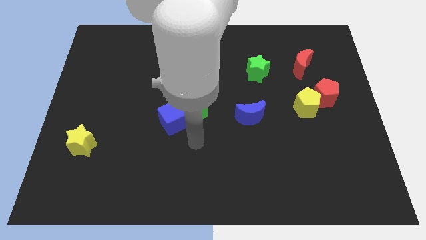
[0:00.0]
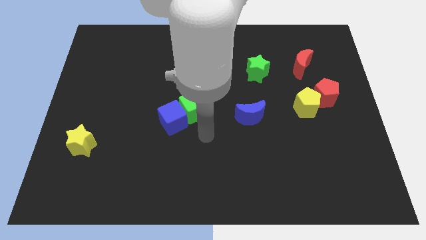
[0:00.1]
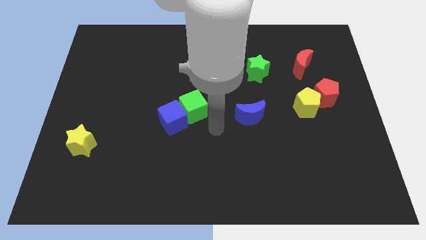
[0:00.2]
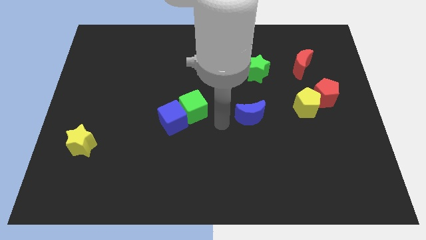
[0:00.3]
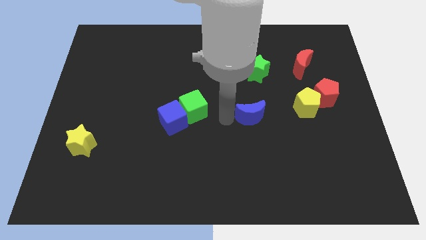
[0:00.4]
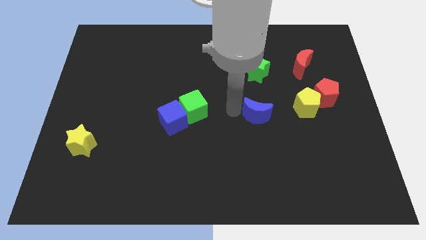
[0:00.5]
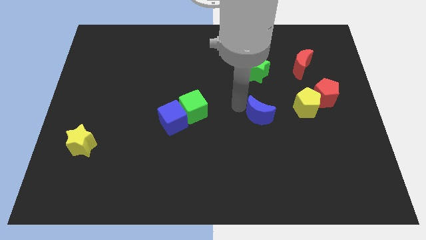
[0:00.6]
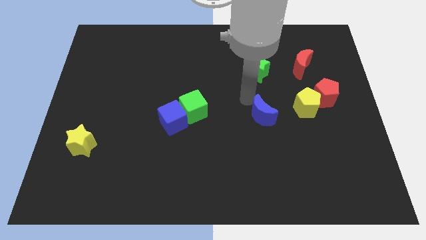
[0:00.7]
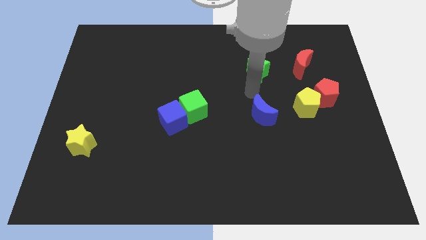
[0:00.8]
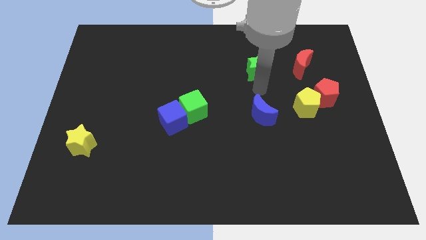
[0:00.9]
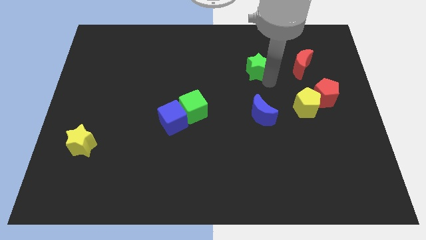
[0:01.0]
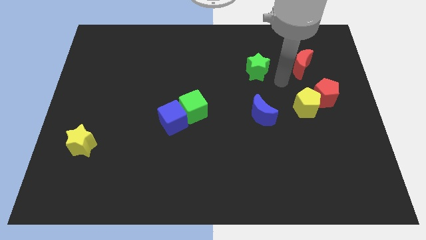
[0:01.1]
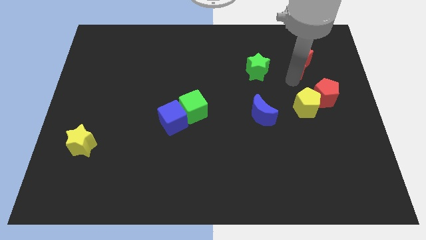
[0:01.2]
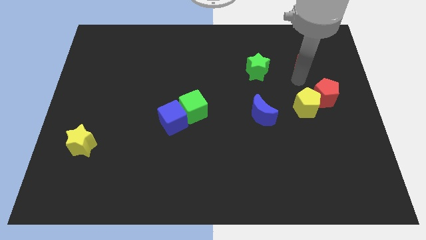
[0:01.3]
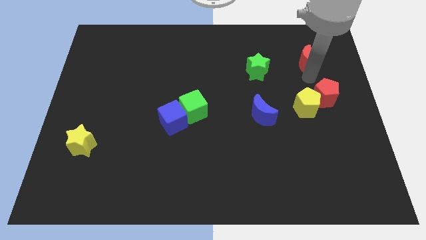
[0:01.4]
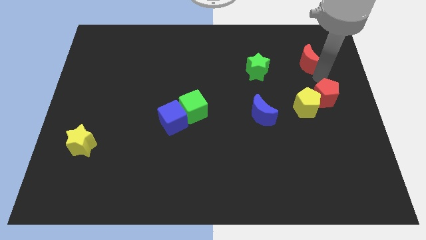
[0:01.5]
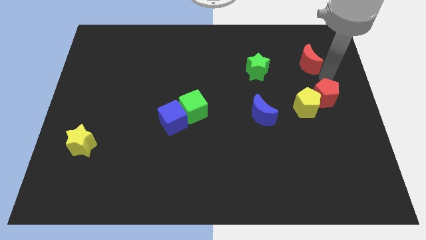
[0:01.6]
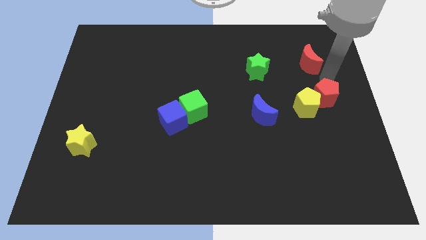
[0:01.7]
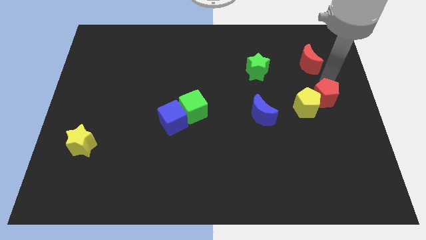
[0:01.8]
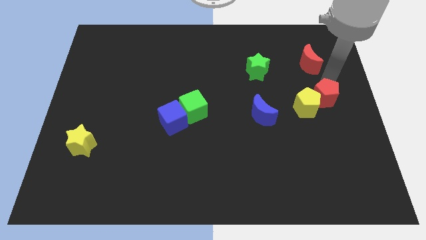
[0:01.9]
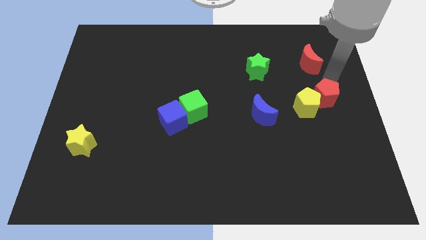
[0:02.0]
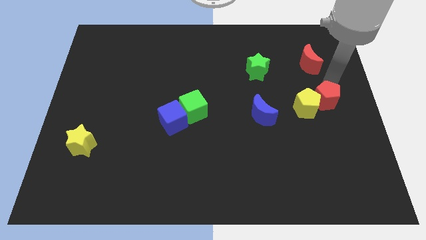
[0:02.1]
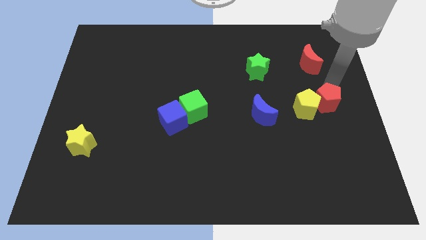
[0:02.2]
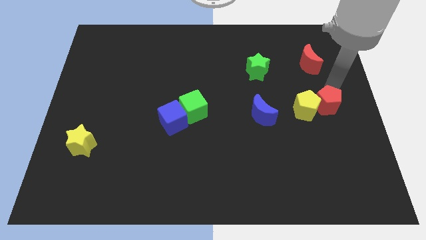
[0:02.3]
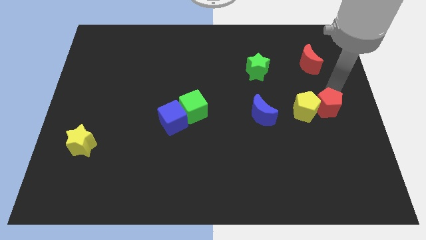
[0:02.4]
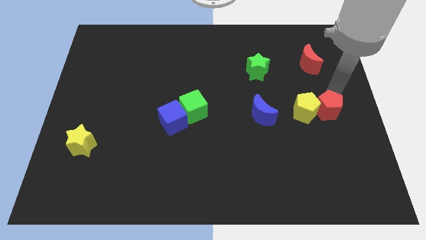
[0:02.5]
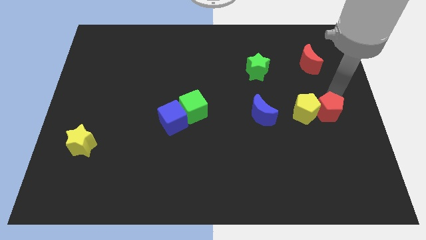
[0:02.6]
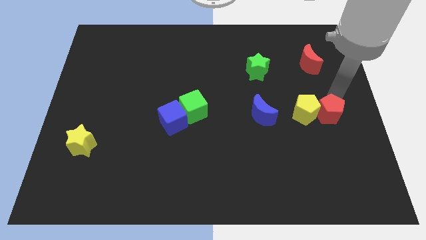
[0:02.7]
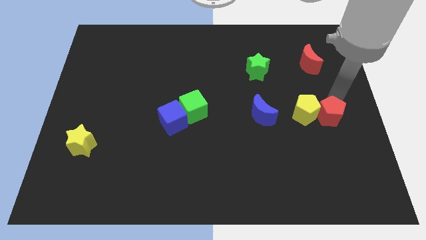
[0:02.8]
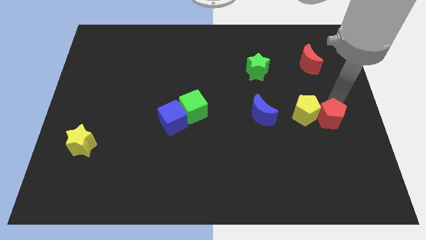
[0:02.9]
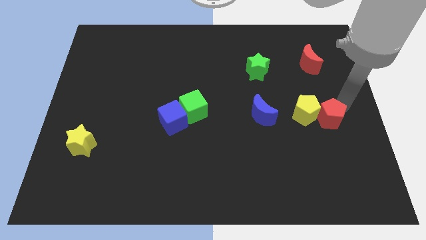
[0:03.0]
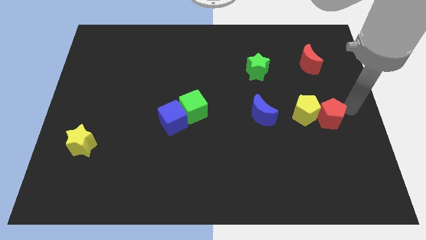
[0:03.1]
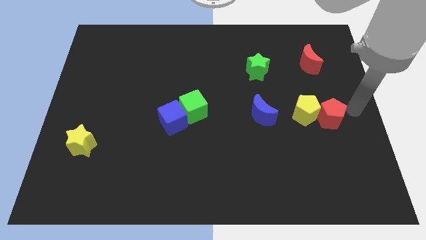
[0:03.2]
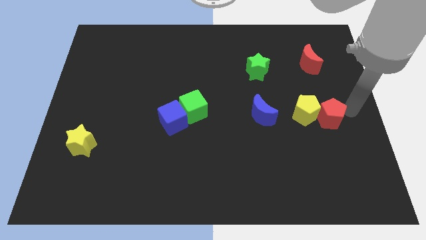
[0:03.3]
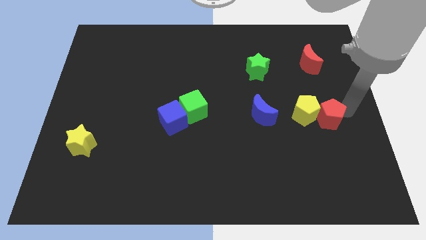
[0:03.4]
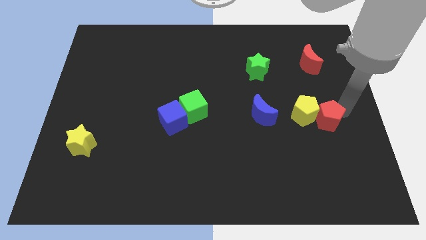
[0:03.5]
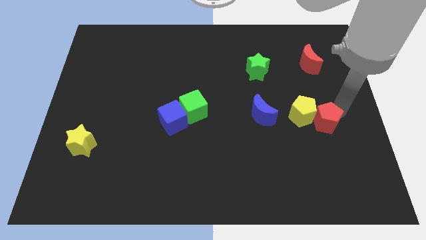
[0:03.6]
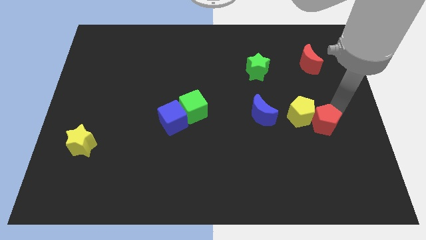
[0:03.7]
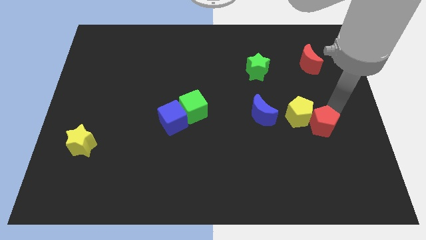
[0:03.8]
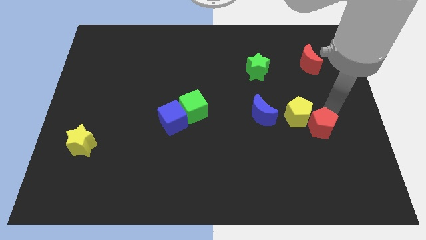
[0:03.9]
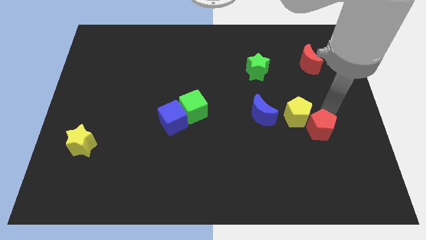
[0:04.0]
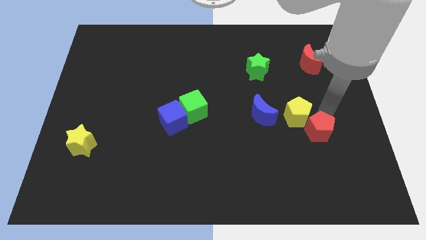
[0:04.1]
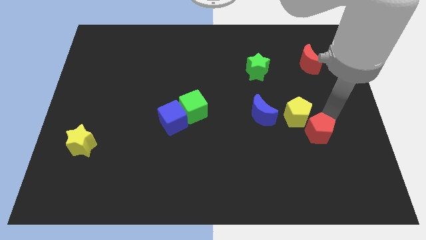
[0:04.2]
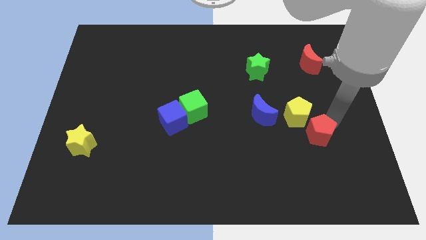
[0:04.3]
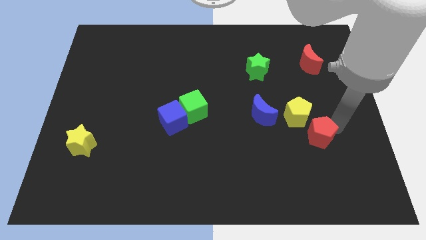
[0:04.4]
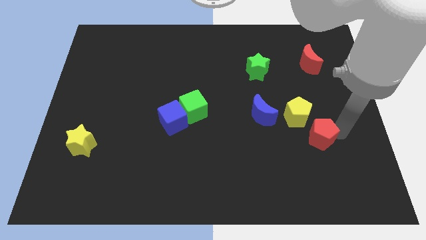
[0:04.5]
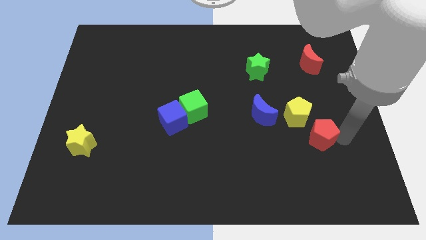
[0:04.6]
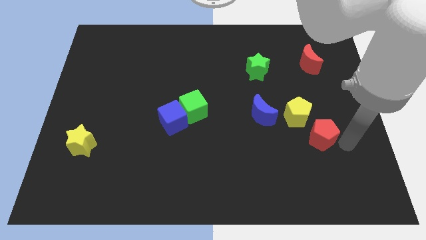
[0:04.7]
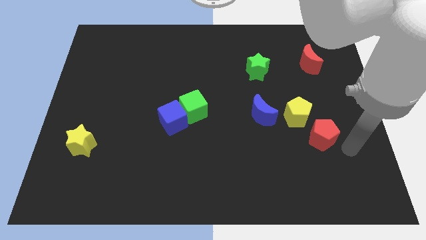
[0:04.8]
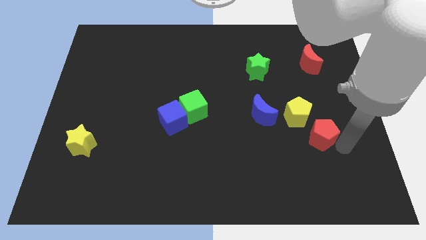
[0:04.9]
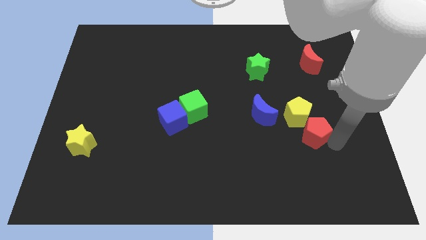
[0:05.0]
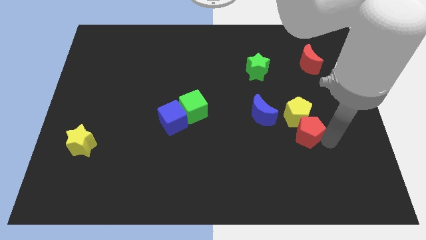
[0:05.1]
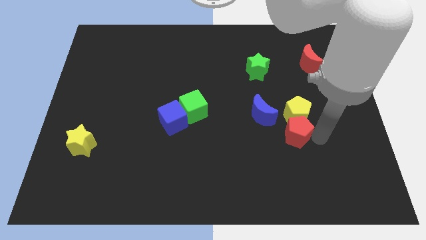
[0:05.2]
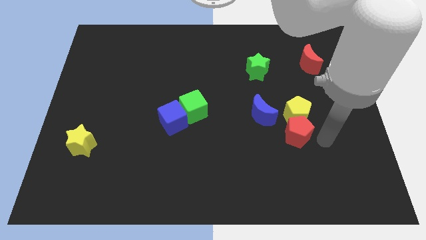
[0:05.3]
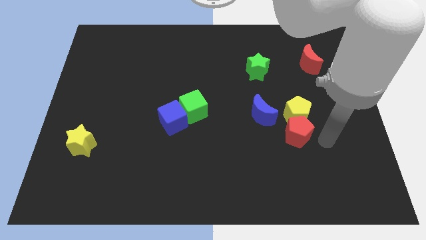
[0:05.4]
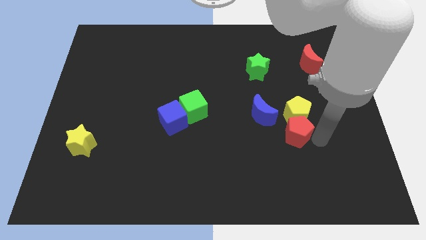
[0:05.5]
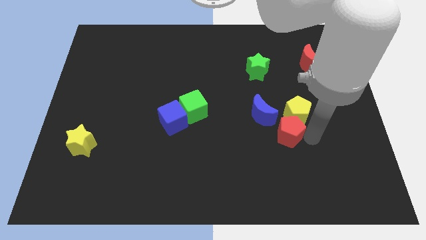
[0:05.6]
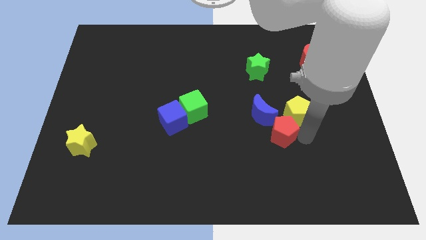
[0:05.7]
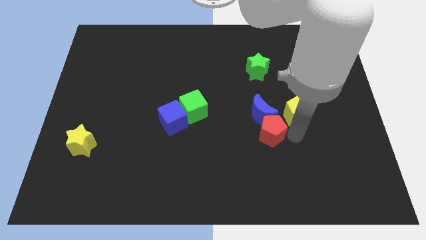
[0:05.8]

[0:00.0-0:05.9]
push the red pentagon to the bottom left of the blue moon

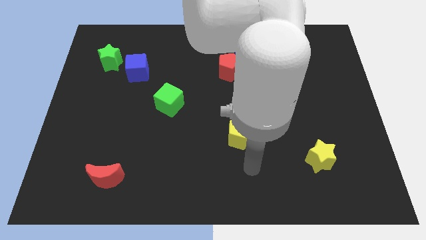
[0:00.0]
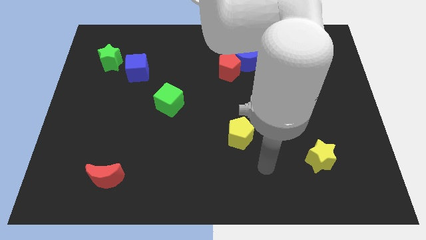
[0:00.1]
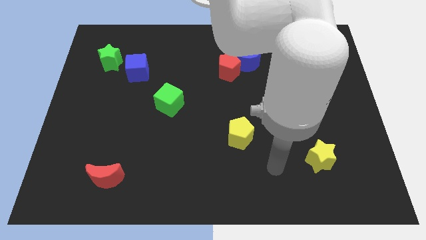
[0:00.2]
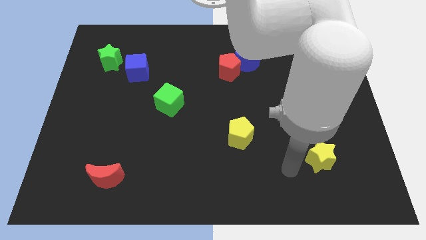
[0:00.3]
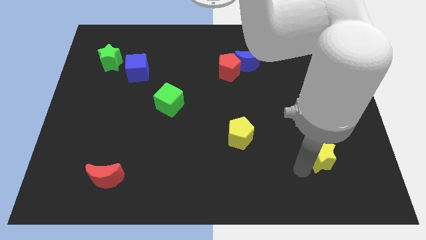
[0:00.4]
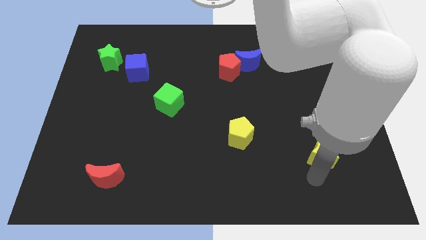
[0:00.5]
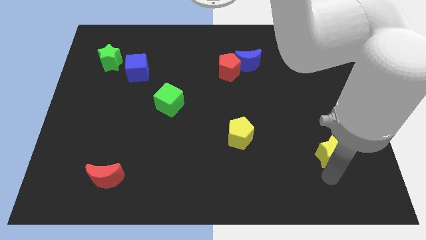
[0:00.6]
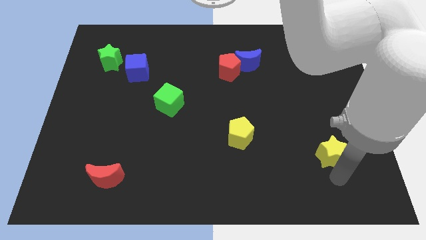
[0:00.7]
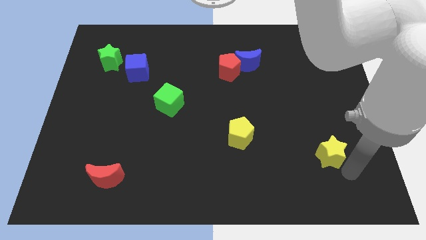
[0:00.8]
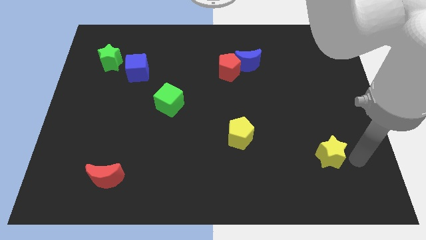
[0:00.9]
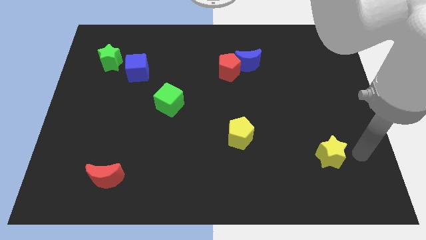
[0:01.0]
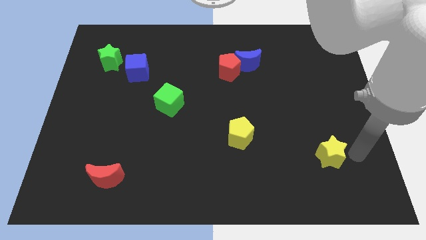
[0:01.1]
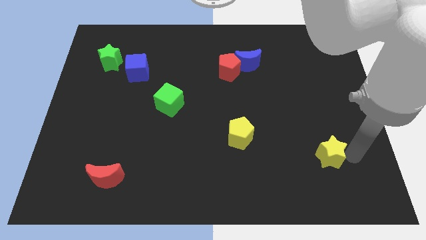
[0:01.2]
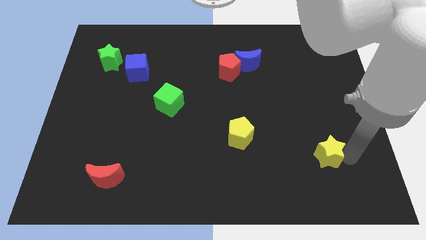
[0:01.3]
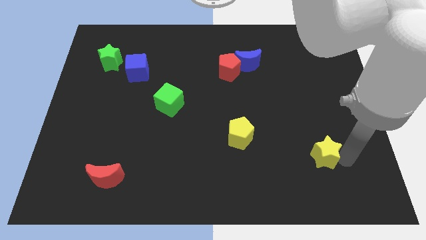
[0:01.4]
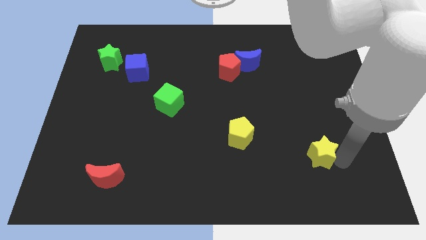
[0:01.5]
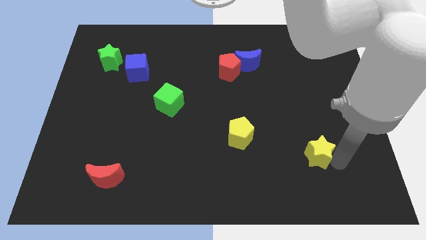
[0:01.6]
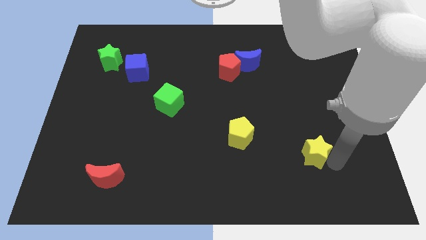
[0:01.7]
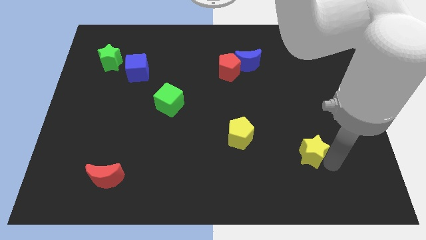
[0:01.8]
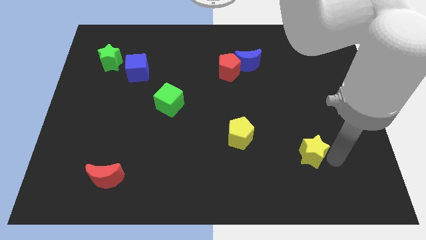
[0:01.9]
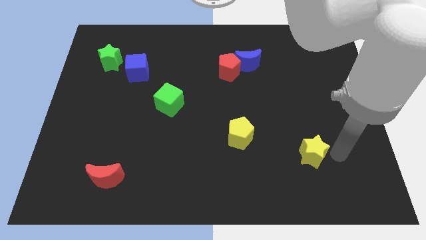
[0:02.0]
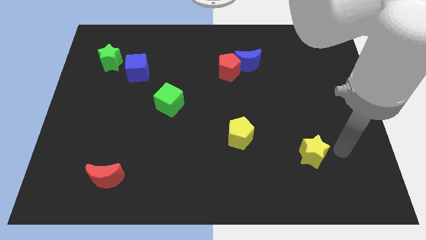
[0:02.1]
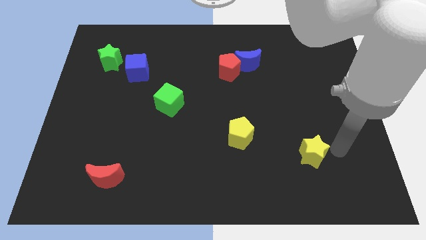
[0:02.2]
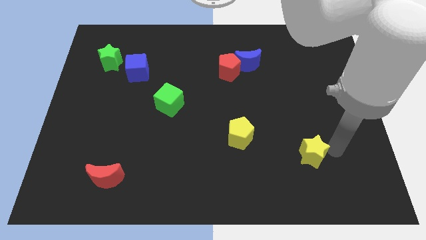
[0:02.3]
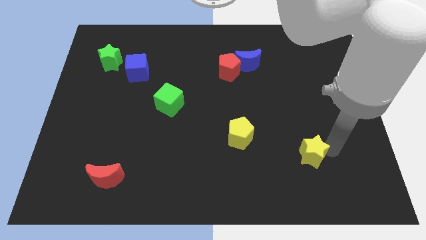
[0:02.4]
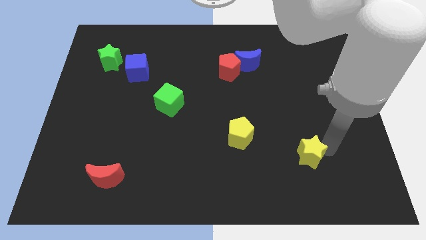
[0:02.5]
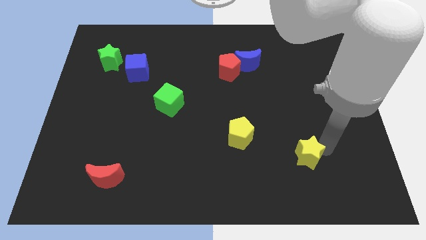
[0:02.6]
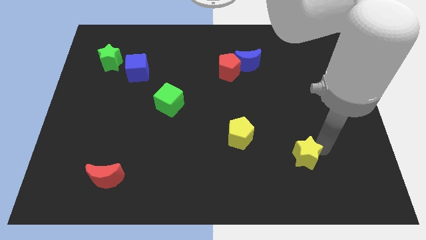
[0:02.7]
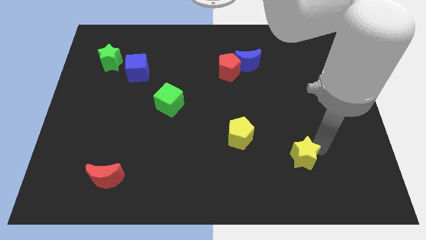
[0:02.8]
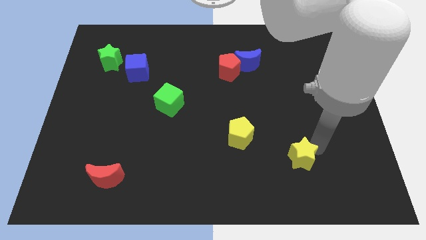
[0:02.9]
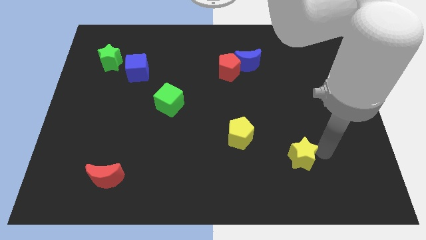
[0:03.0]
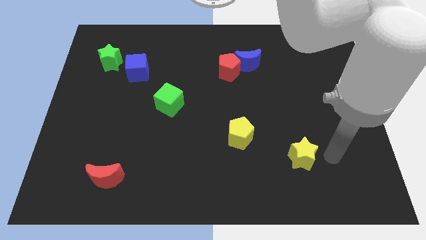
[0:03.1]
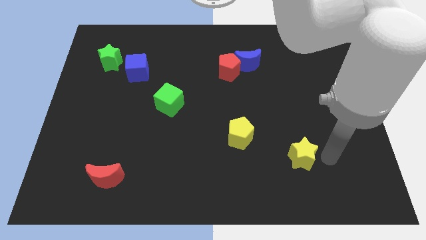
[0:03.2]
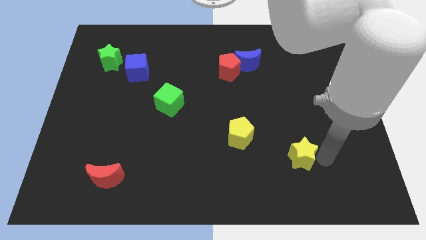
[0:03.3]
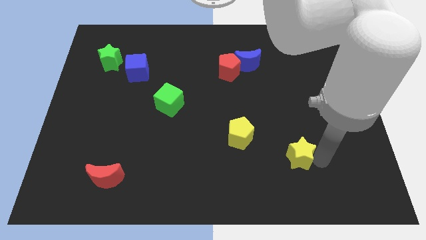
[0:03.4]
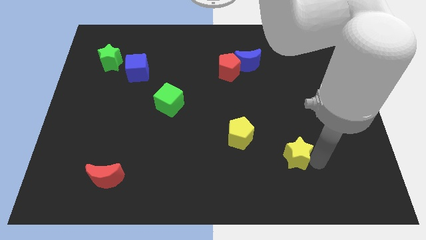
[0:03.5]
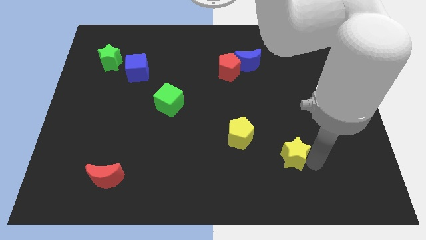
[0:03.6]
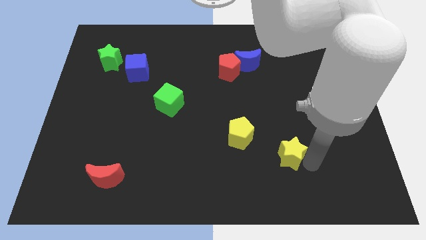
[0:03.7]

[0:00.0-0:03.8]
move the yellow star to the bottom right side of the yellow pentagon
